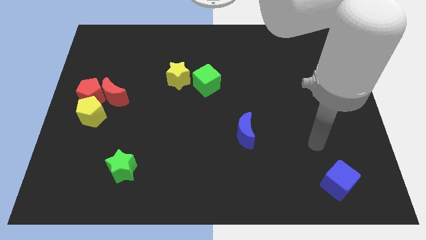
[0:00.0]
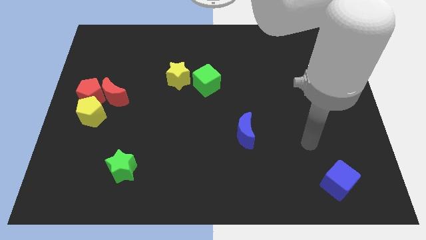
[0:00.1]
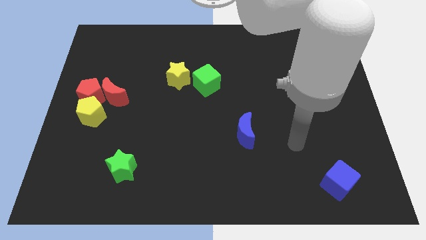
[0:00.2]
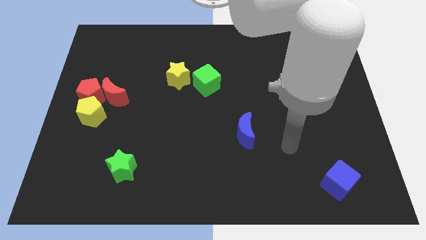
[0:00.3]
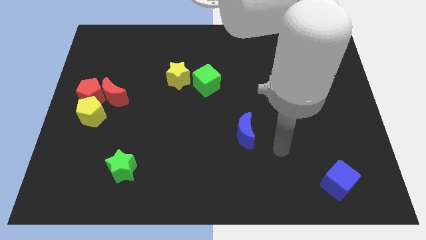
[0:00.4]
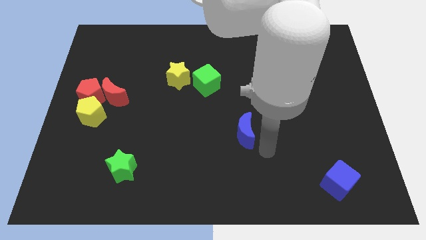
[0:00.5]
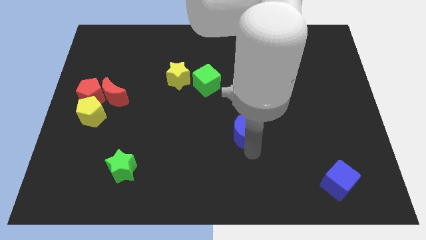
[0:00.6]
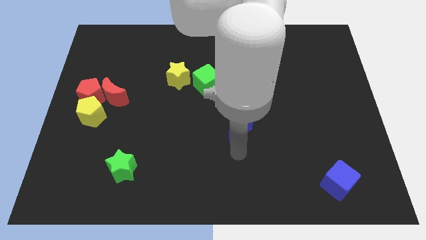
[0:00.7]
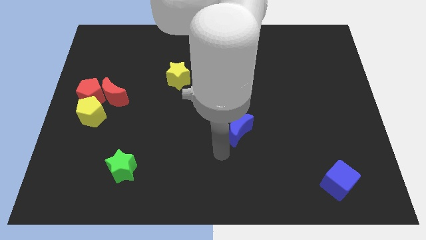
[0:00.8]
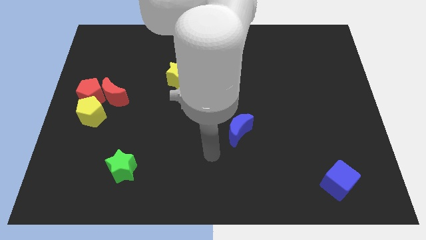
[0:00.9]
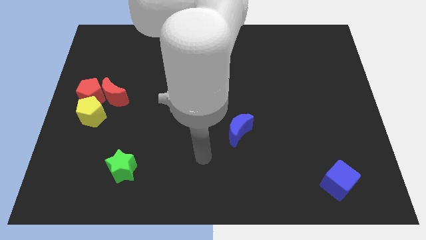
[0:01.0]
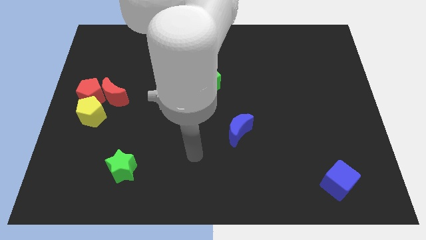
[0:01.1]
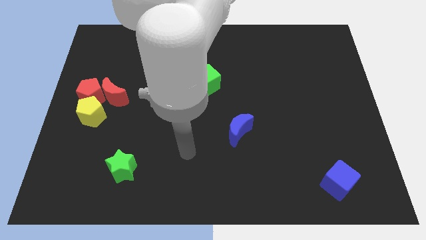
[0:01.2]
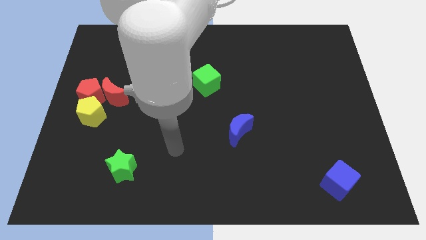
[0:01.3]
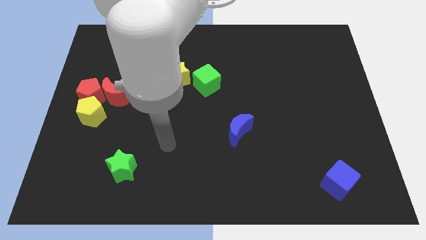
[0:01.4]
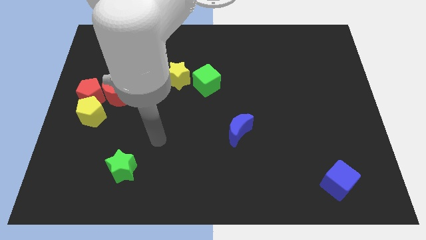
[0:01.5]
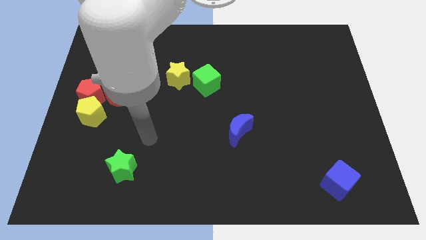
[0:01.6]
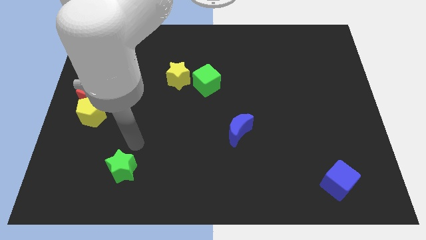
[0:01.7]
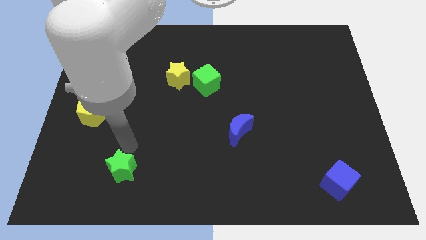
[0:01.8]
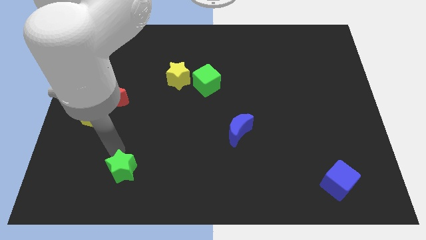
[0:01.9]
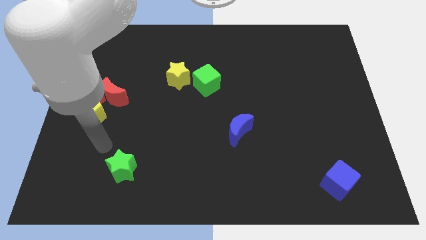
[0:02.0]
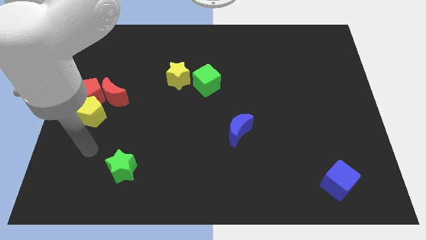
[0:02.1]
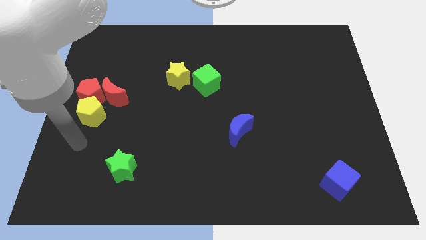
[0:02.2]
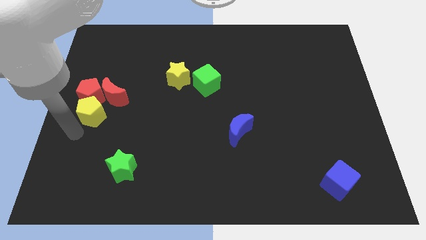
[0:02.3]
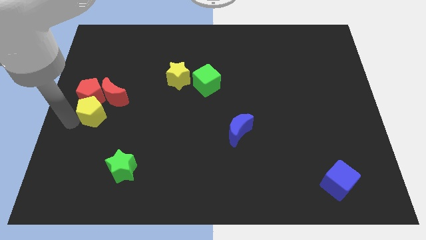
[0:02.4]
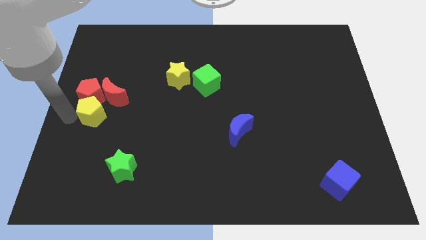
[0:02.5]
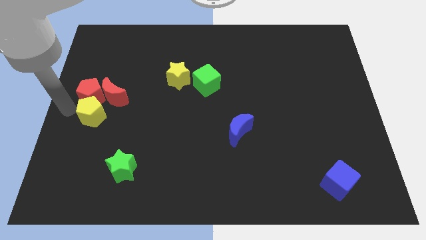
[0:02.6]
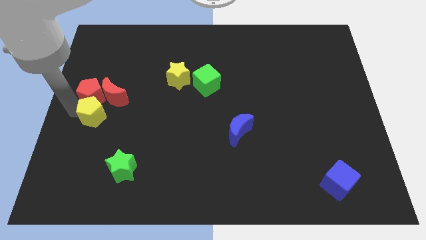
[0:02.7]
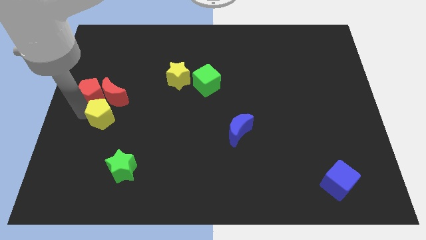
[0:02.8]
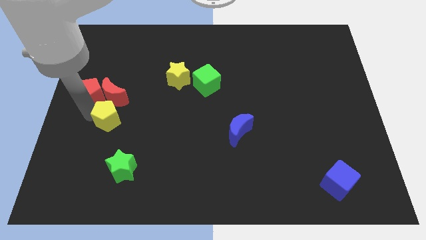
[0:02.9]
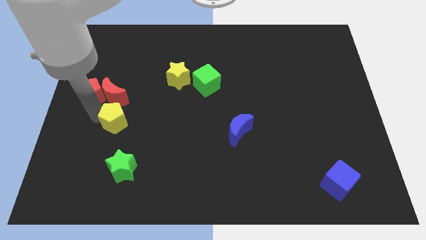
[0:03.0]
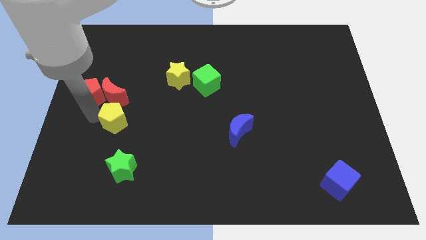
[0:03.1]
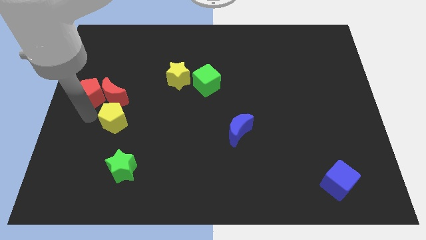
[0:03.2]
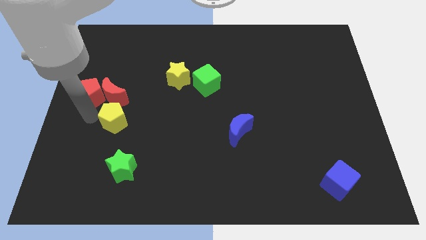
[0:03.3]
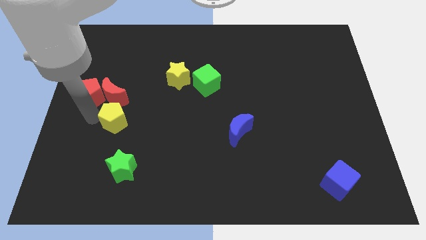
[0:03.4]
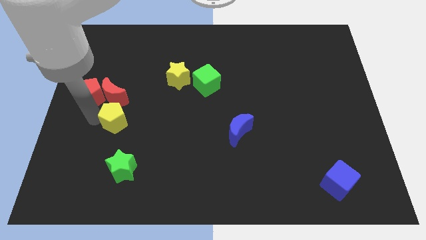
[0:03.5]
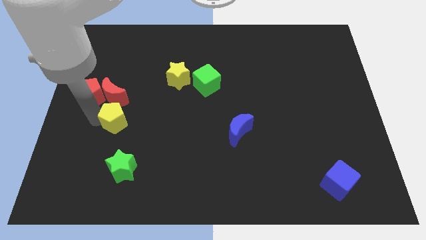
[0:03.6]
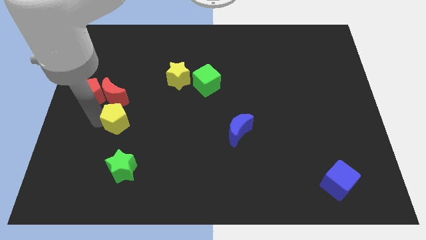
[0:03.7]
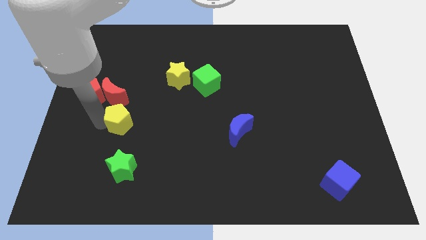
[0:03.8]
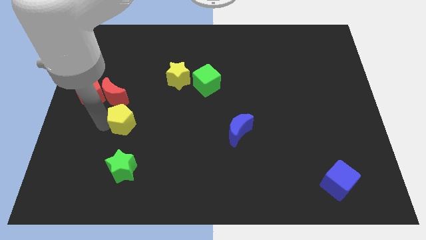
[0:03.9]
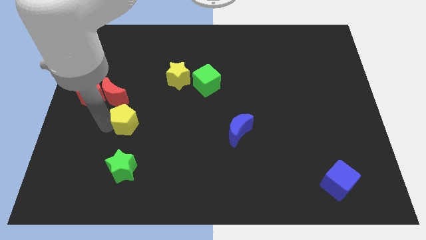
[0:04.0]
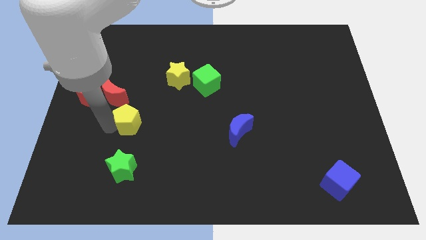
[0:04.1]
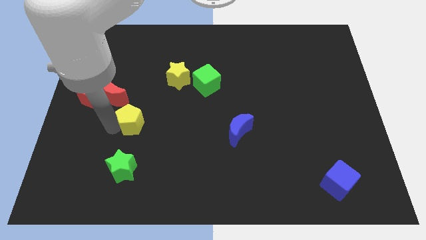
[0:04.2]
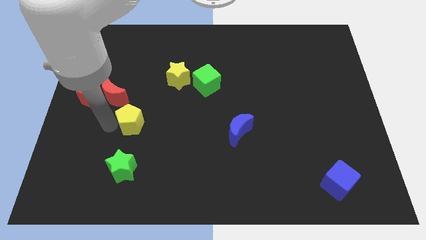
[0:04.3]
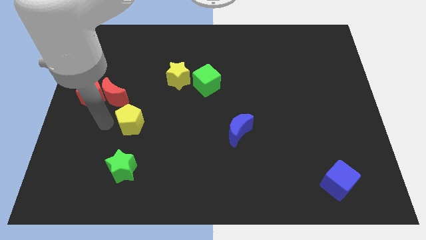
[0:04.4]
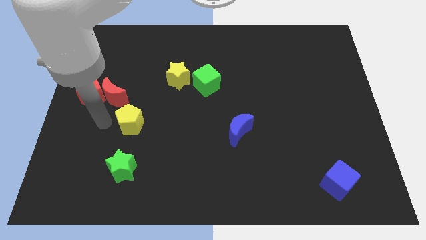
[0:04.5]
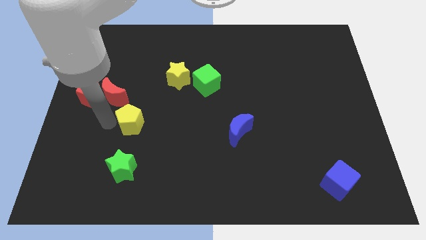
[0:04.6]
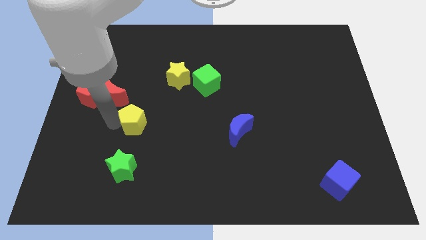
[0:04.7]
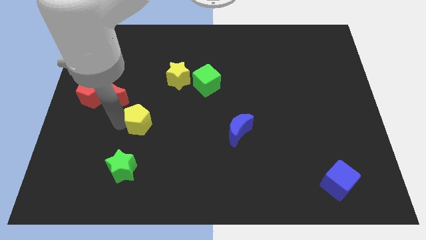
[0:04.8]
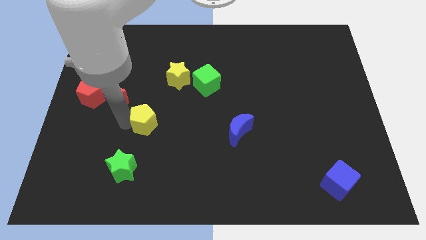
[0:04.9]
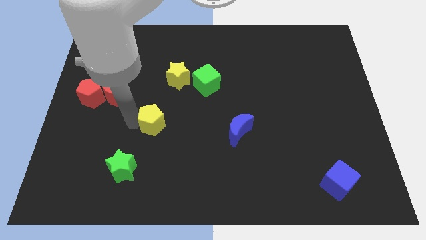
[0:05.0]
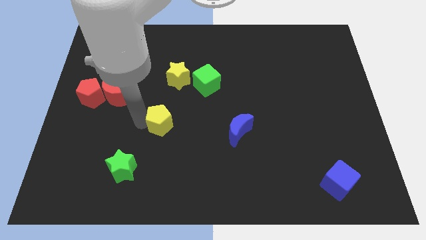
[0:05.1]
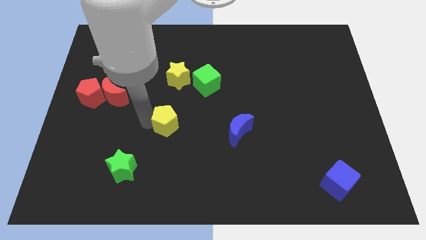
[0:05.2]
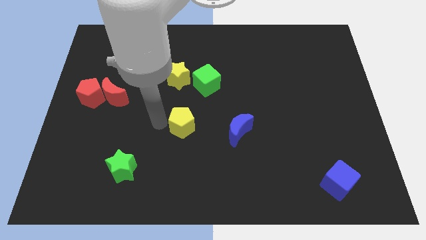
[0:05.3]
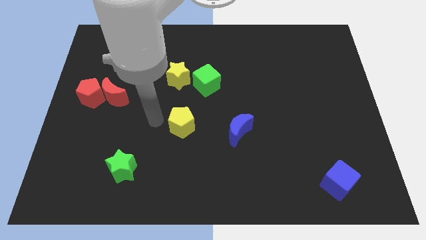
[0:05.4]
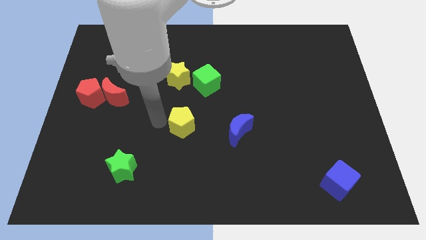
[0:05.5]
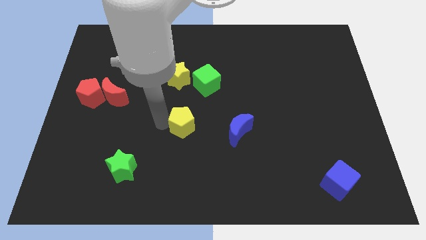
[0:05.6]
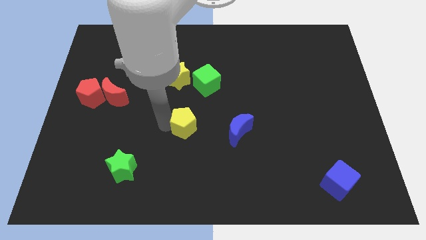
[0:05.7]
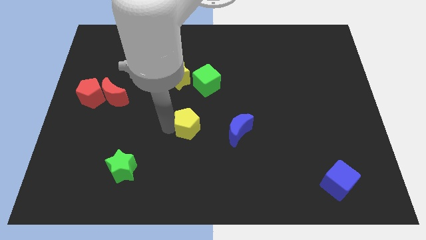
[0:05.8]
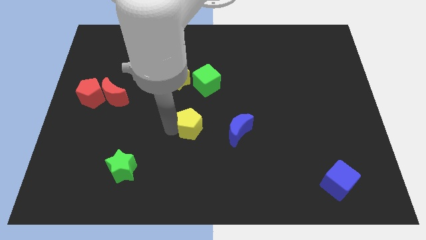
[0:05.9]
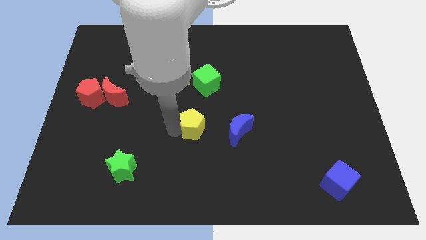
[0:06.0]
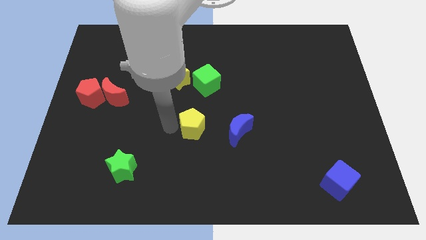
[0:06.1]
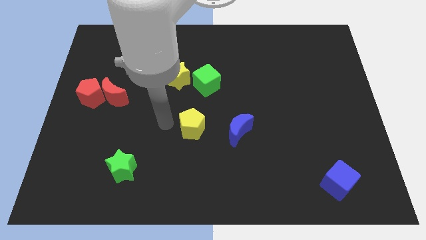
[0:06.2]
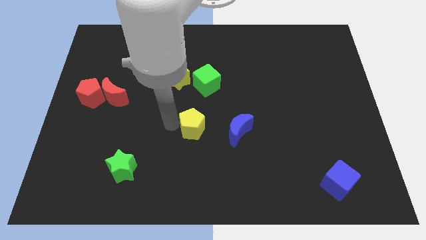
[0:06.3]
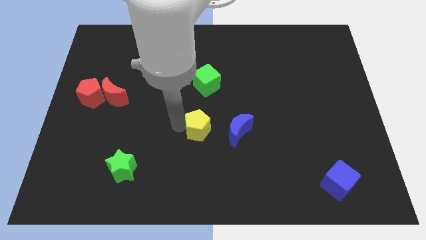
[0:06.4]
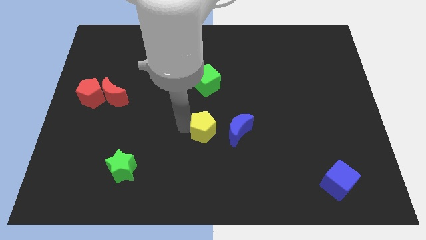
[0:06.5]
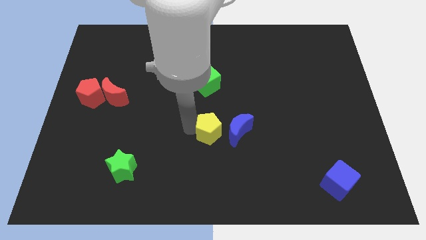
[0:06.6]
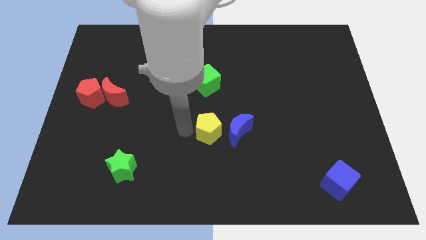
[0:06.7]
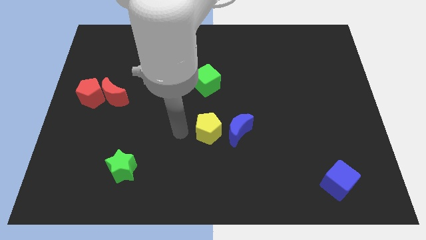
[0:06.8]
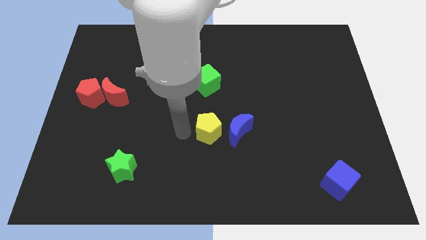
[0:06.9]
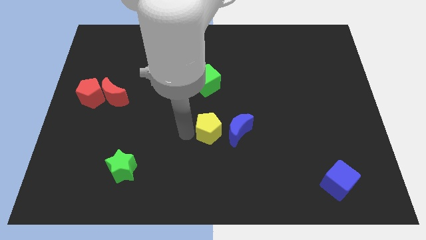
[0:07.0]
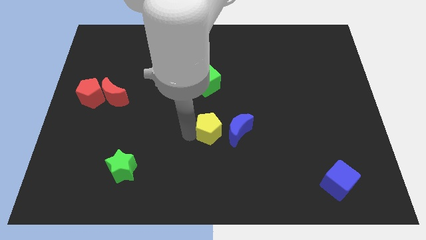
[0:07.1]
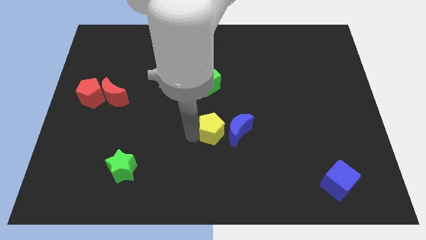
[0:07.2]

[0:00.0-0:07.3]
slide the yellow pentagon to the blue moon

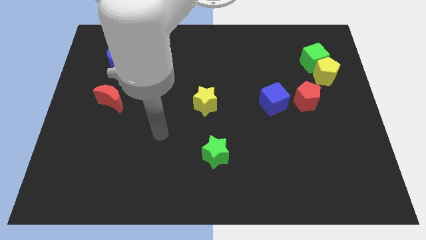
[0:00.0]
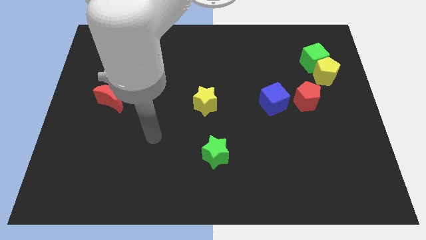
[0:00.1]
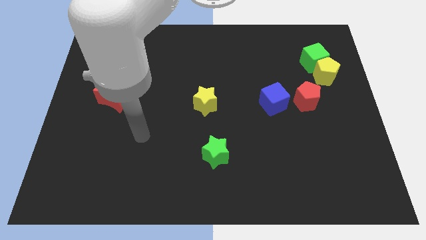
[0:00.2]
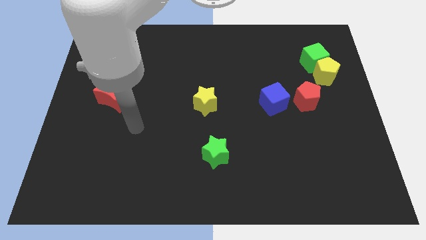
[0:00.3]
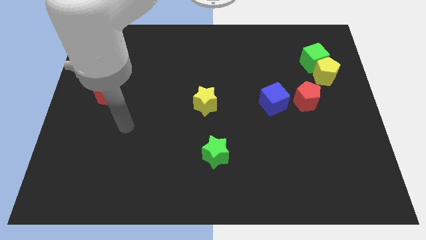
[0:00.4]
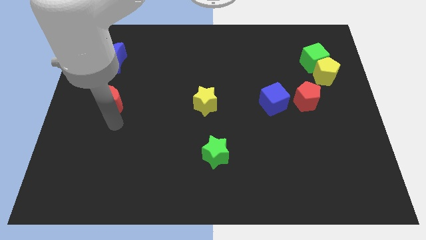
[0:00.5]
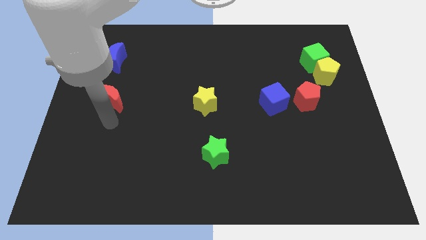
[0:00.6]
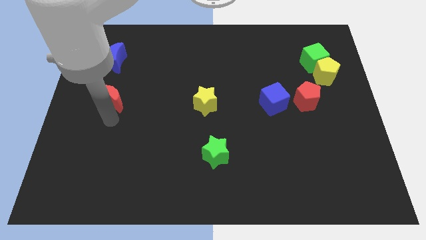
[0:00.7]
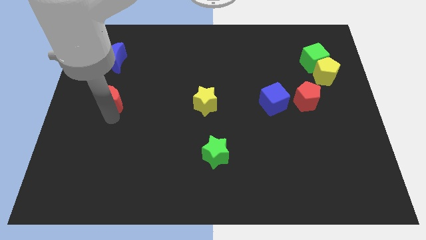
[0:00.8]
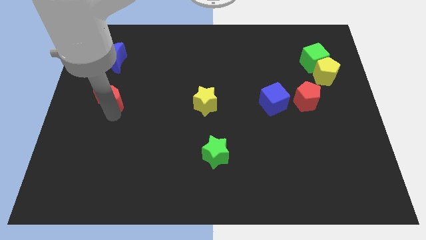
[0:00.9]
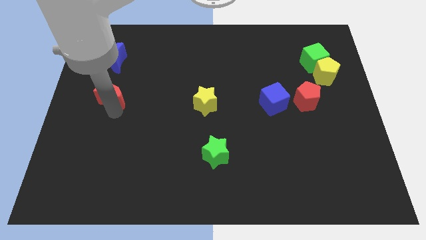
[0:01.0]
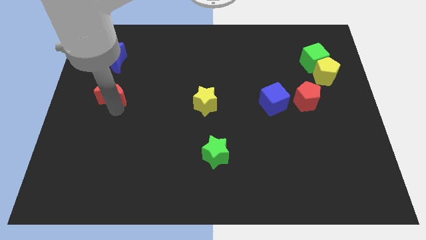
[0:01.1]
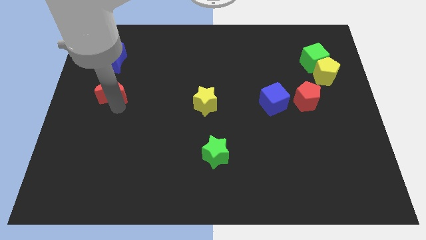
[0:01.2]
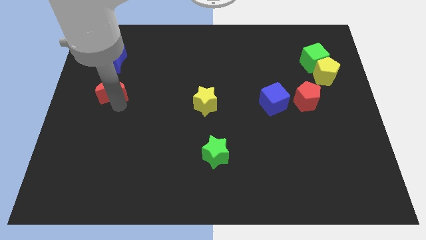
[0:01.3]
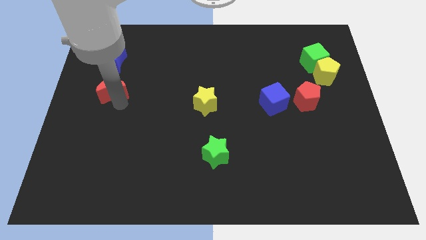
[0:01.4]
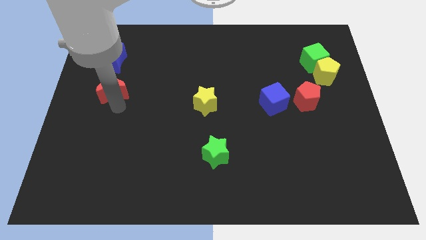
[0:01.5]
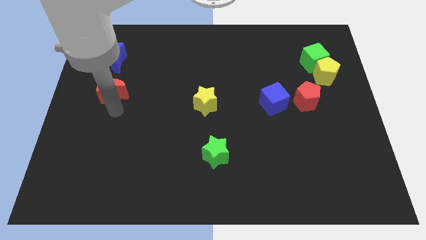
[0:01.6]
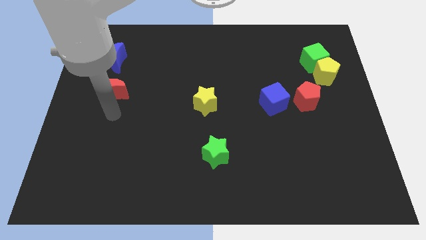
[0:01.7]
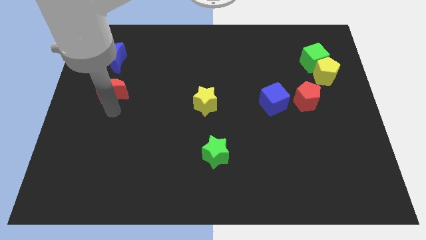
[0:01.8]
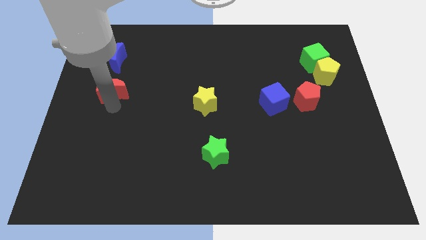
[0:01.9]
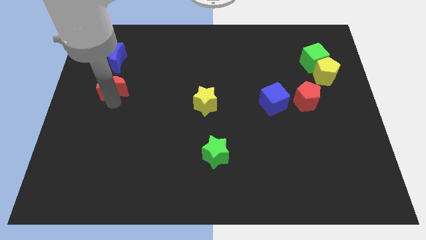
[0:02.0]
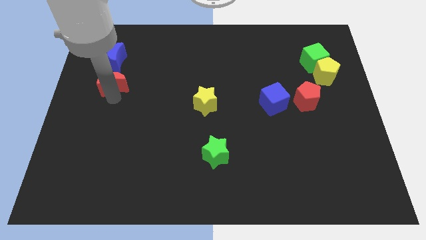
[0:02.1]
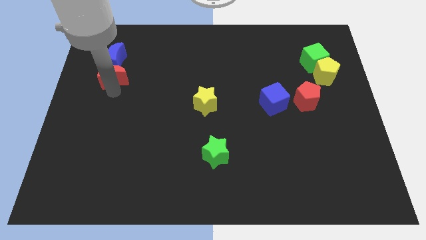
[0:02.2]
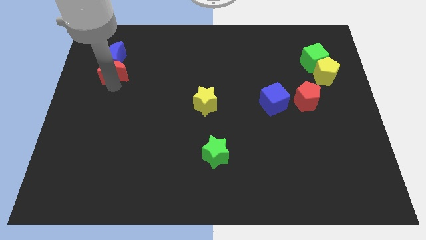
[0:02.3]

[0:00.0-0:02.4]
put the red moon towards the blue moon
